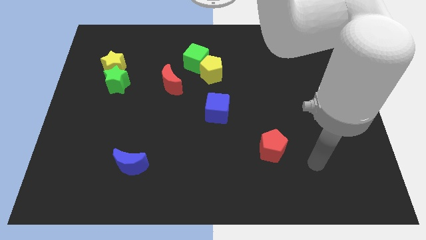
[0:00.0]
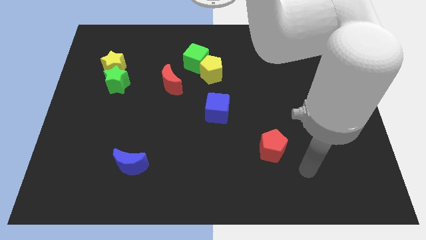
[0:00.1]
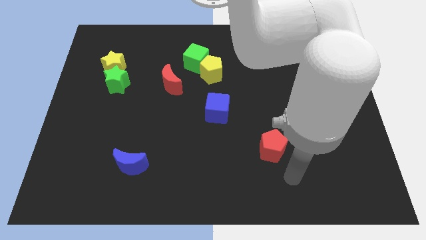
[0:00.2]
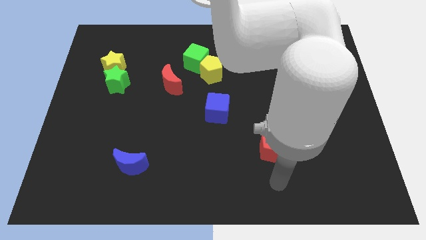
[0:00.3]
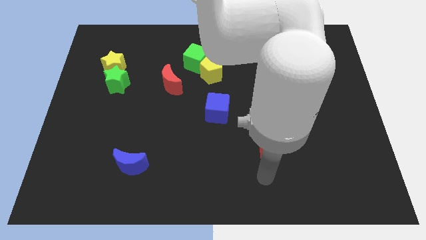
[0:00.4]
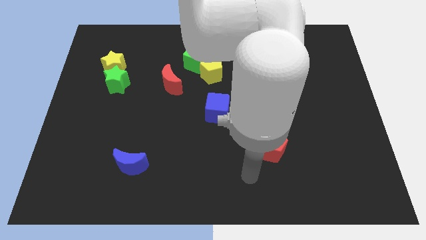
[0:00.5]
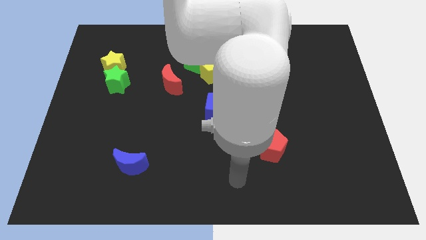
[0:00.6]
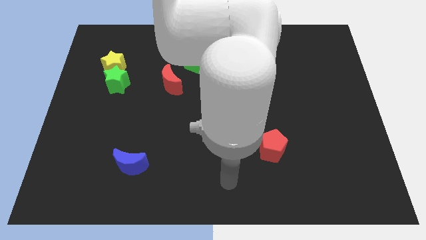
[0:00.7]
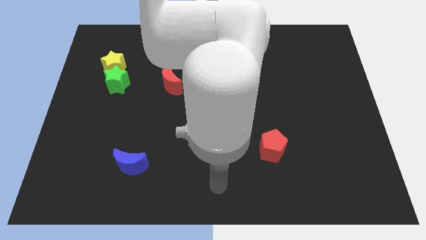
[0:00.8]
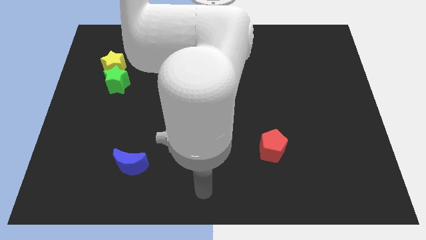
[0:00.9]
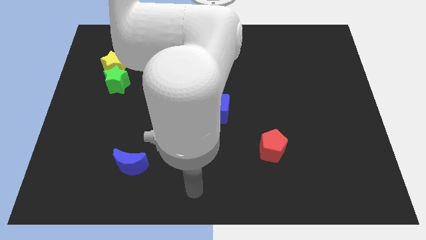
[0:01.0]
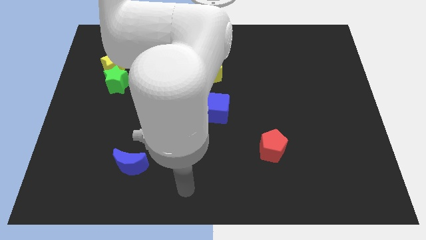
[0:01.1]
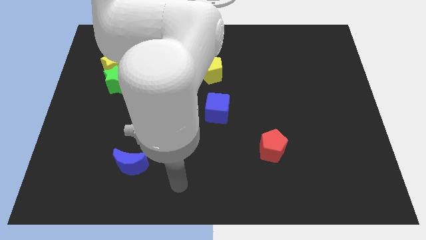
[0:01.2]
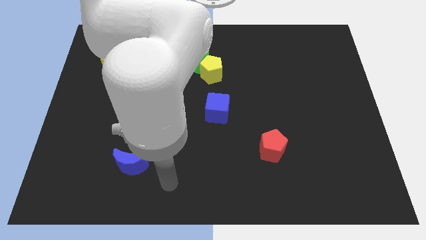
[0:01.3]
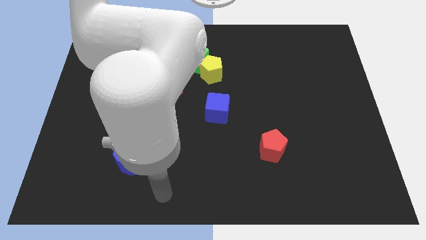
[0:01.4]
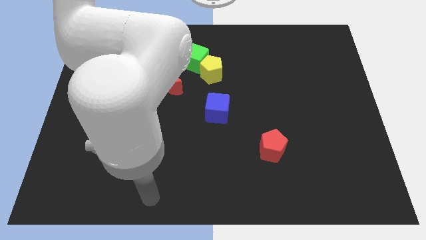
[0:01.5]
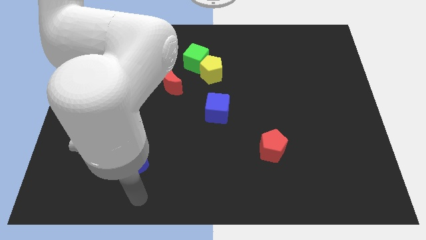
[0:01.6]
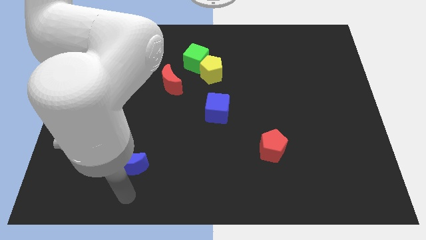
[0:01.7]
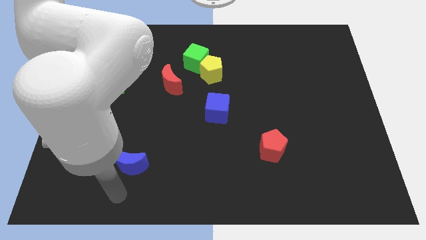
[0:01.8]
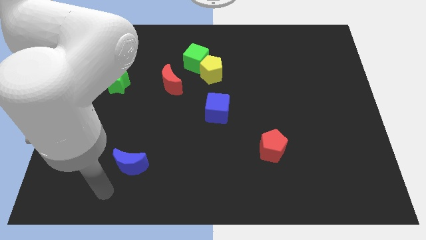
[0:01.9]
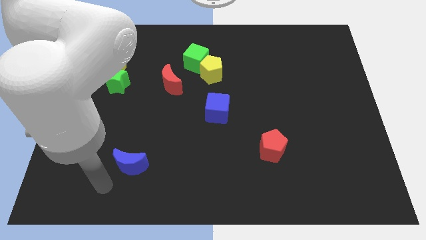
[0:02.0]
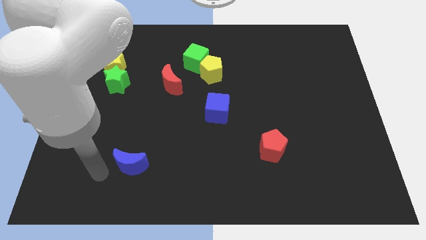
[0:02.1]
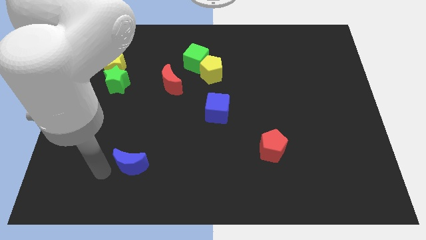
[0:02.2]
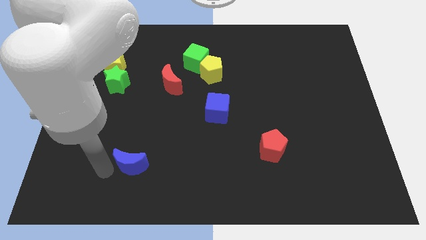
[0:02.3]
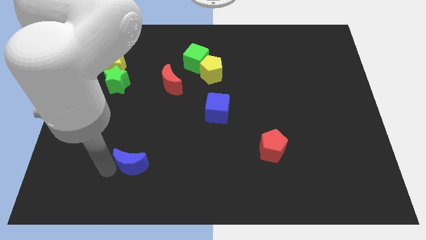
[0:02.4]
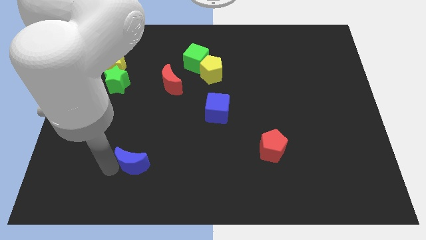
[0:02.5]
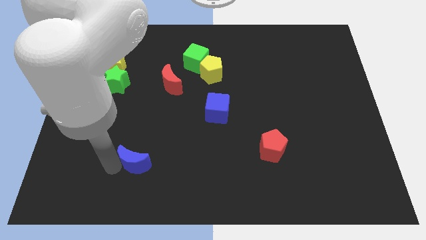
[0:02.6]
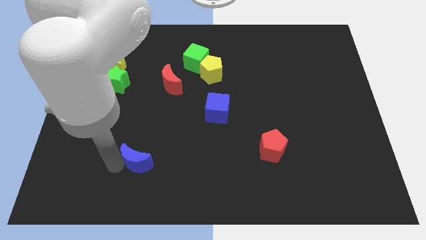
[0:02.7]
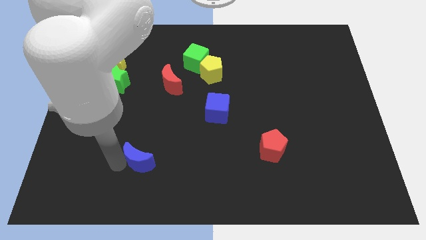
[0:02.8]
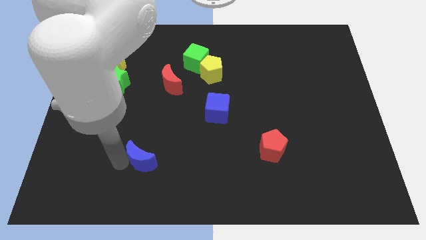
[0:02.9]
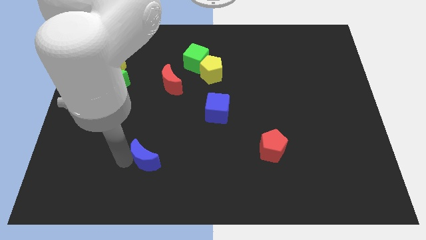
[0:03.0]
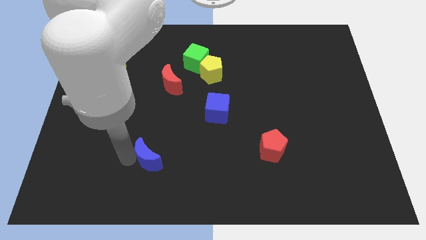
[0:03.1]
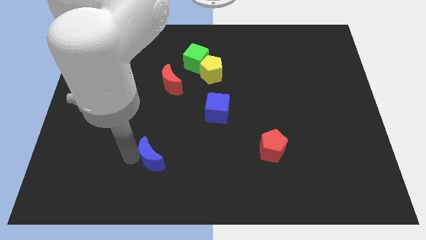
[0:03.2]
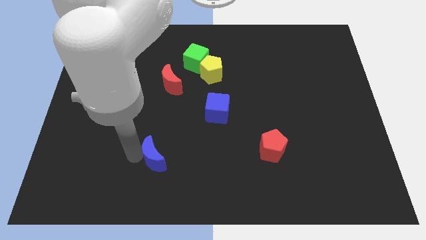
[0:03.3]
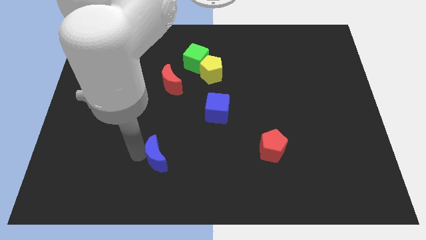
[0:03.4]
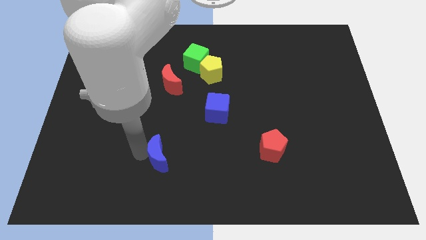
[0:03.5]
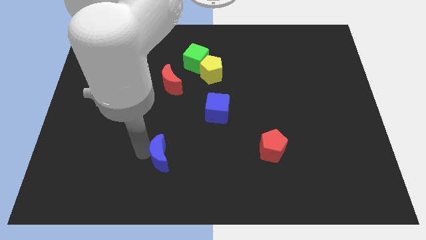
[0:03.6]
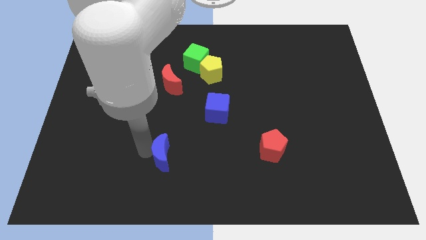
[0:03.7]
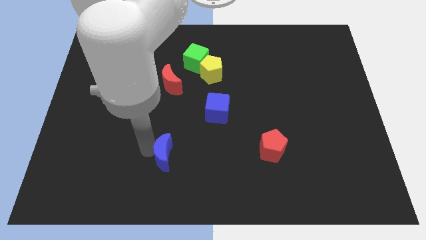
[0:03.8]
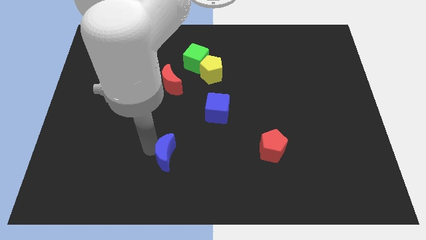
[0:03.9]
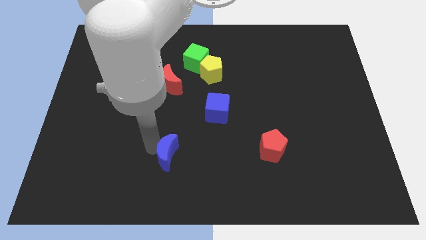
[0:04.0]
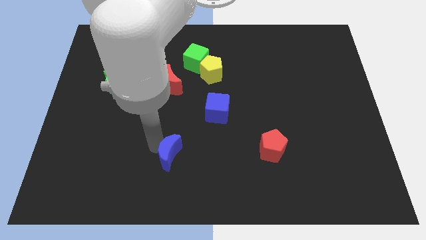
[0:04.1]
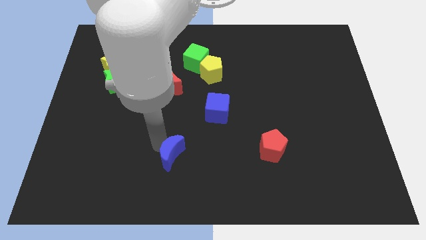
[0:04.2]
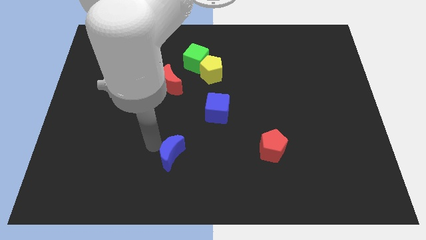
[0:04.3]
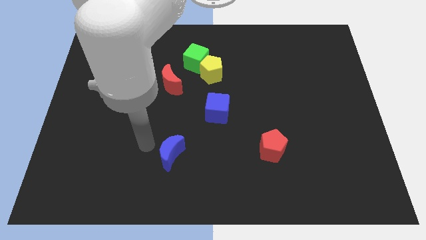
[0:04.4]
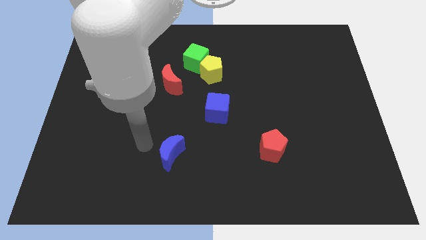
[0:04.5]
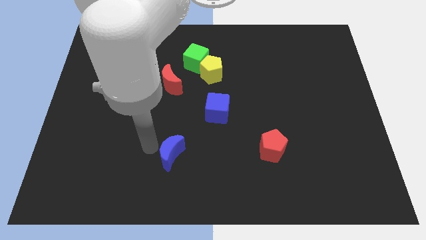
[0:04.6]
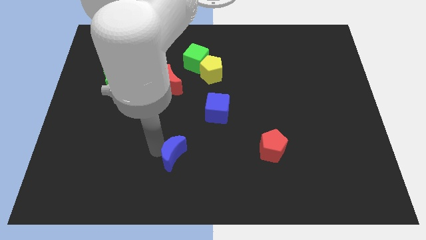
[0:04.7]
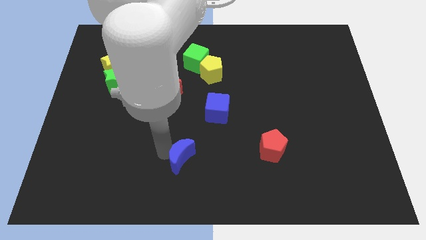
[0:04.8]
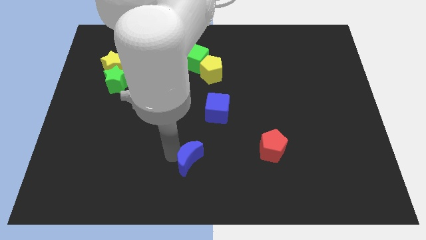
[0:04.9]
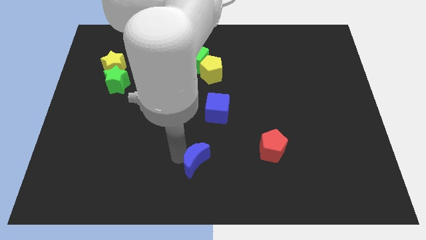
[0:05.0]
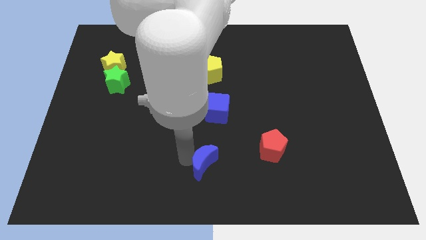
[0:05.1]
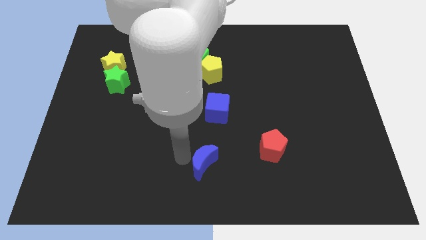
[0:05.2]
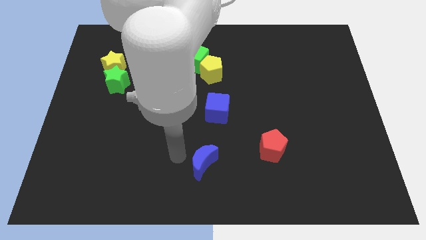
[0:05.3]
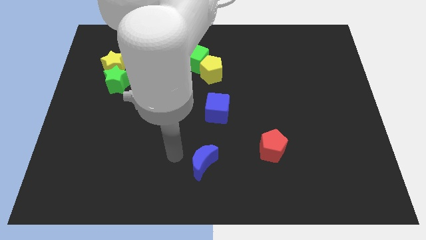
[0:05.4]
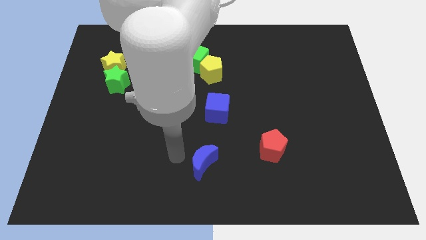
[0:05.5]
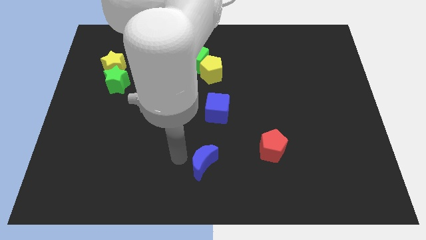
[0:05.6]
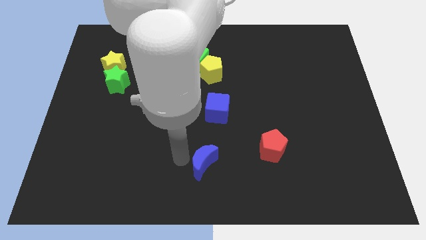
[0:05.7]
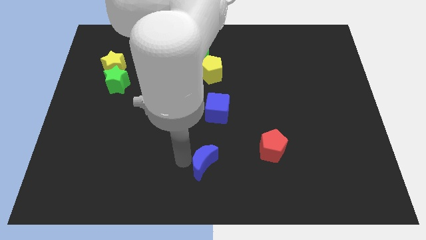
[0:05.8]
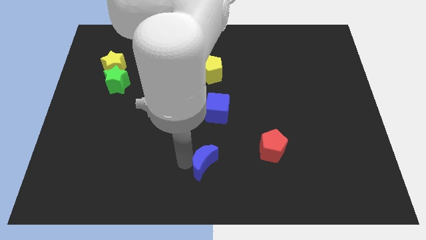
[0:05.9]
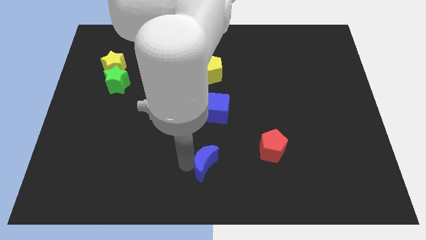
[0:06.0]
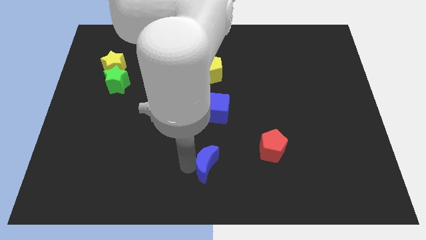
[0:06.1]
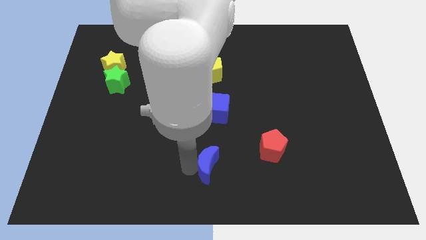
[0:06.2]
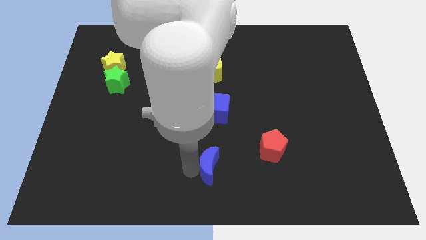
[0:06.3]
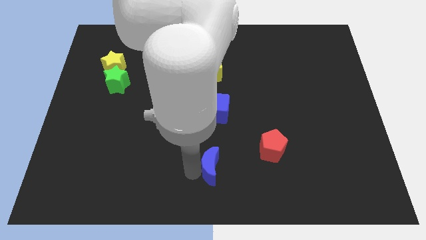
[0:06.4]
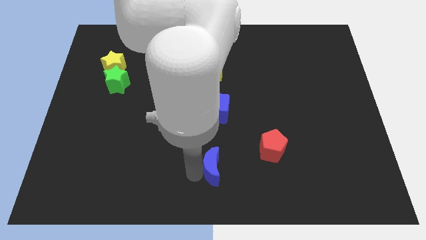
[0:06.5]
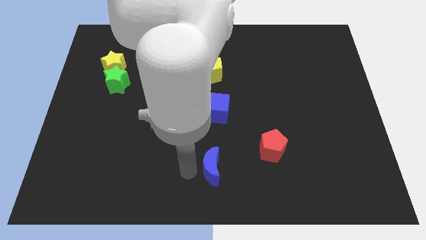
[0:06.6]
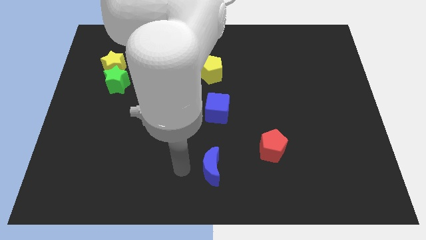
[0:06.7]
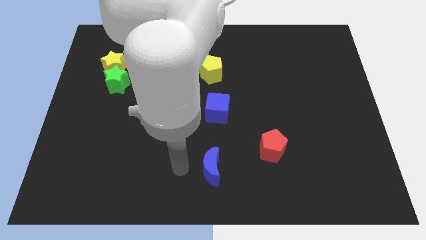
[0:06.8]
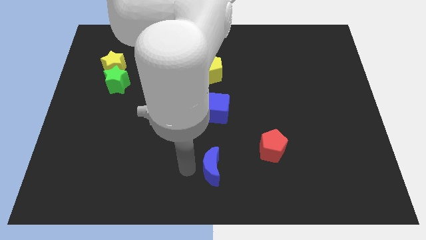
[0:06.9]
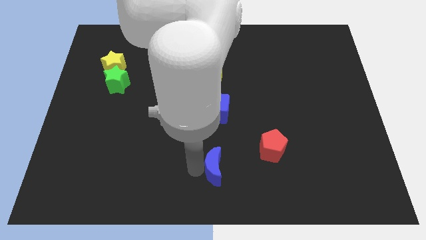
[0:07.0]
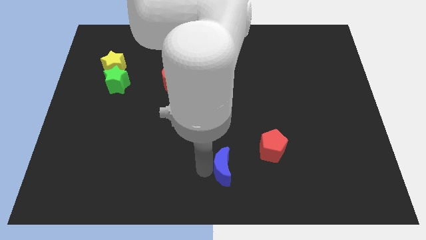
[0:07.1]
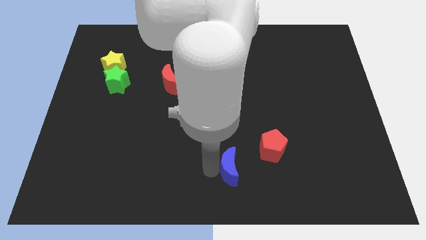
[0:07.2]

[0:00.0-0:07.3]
push the blue moon right

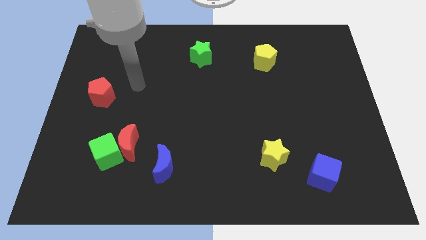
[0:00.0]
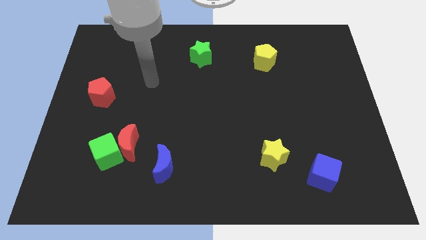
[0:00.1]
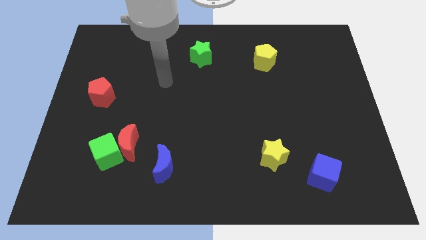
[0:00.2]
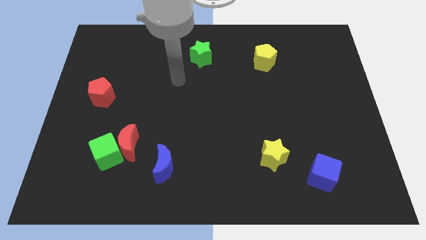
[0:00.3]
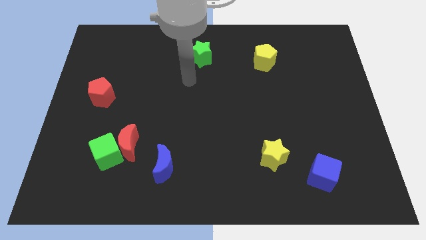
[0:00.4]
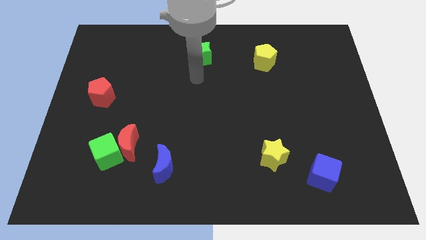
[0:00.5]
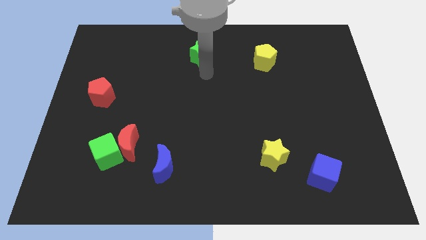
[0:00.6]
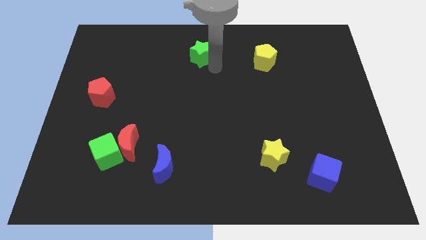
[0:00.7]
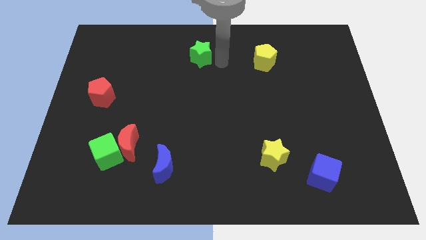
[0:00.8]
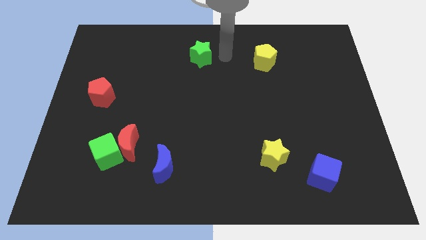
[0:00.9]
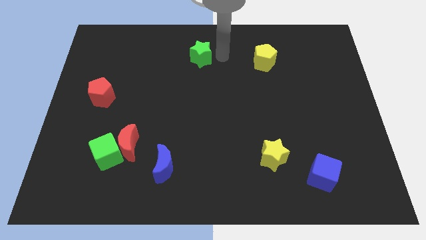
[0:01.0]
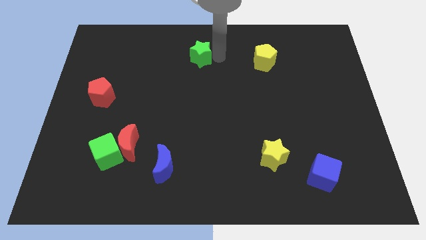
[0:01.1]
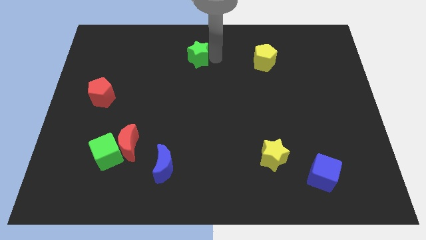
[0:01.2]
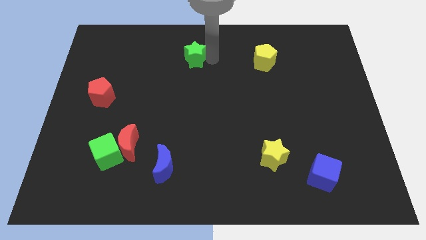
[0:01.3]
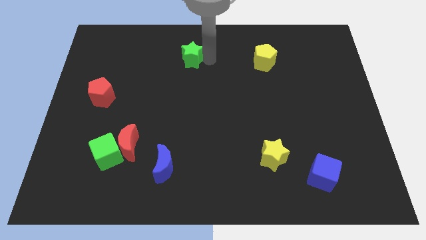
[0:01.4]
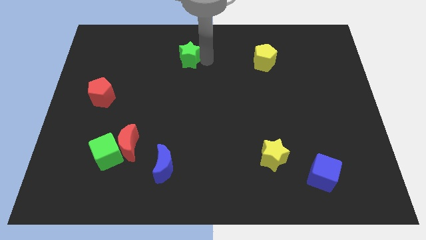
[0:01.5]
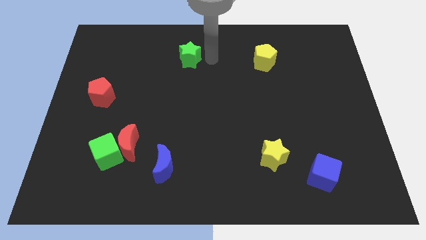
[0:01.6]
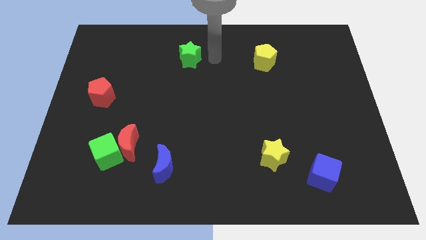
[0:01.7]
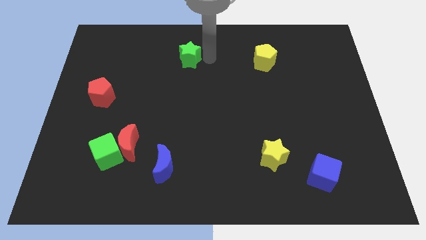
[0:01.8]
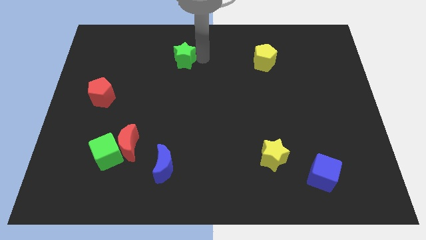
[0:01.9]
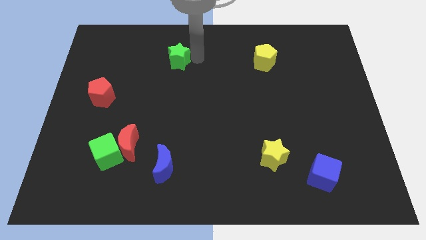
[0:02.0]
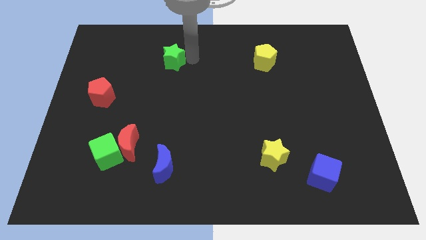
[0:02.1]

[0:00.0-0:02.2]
push the green star left a little bit
